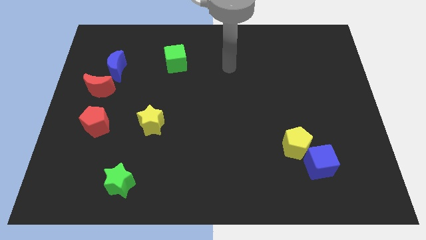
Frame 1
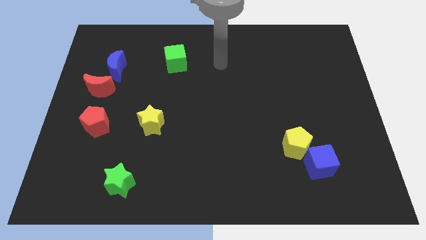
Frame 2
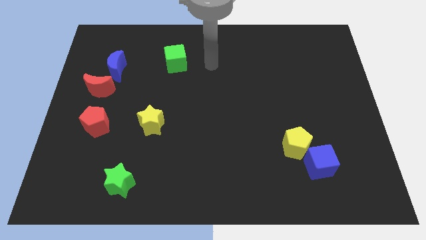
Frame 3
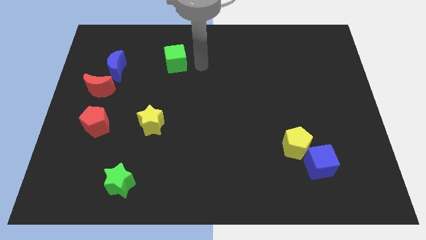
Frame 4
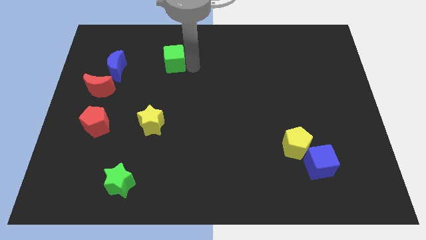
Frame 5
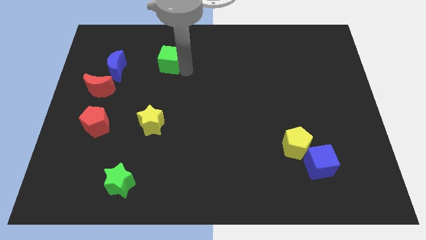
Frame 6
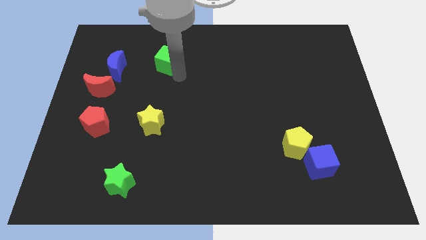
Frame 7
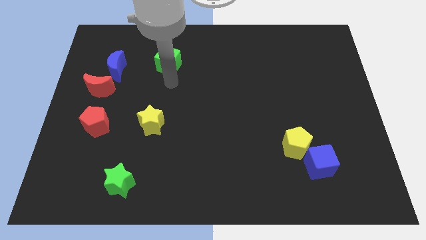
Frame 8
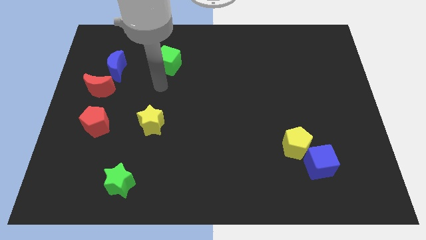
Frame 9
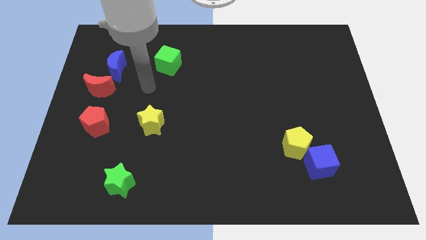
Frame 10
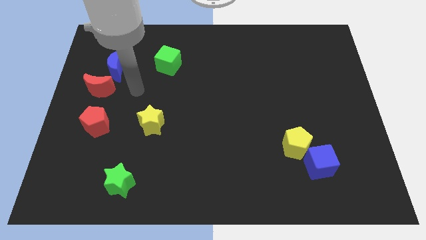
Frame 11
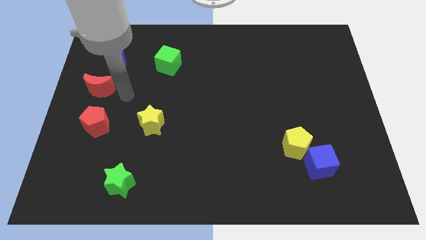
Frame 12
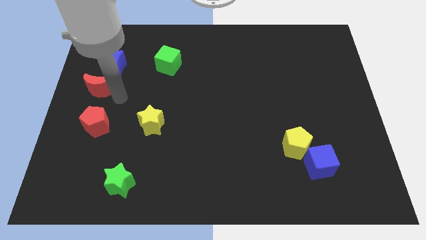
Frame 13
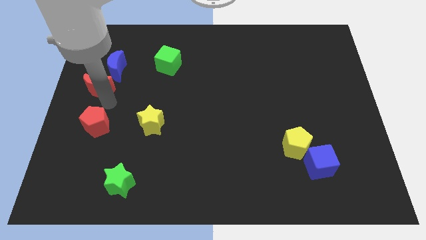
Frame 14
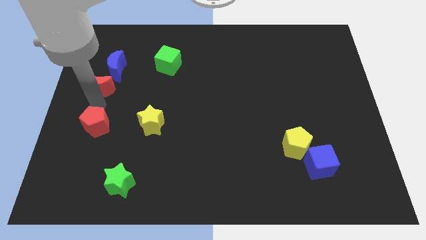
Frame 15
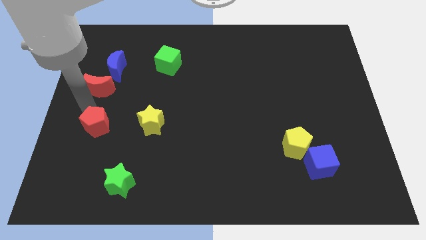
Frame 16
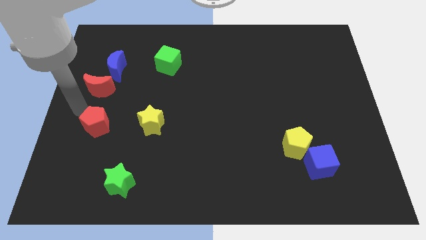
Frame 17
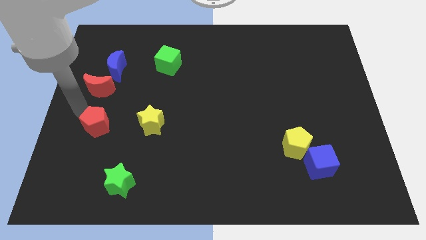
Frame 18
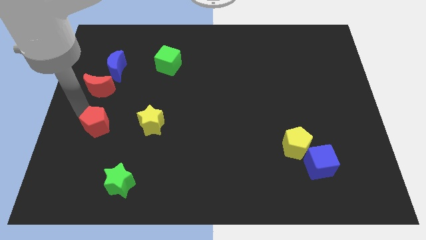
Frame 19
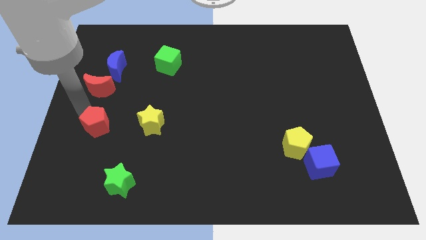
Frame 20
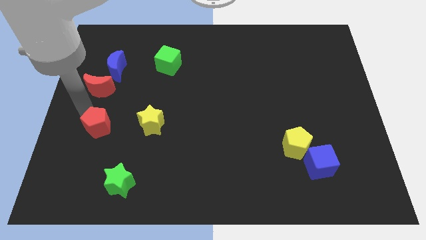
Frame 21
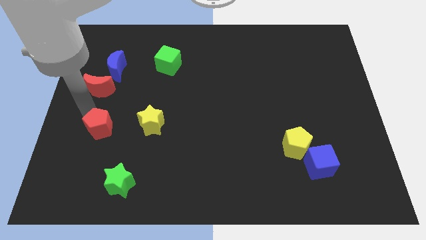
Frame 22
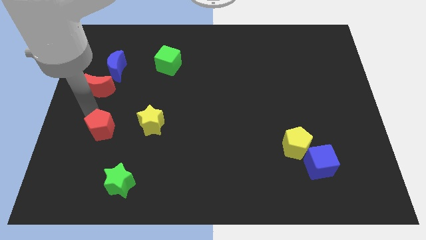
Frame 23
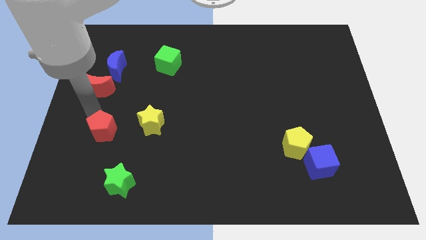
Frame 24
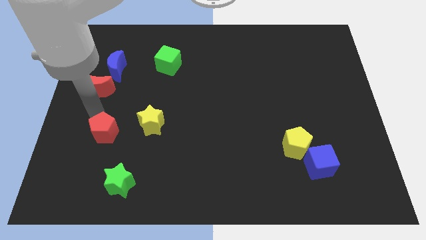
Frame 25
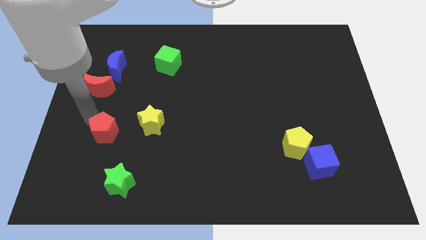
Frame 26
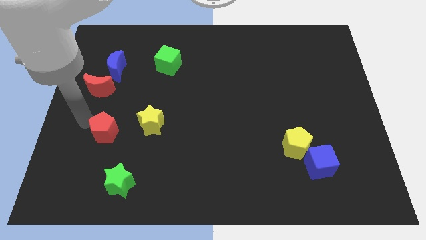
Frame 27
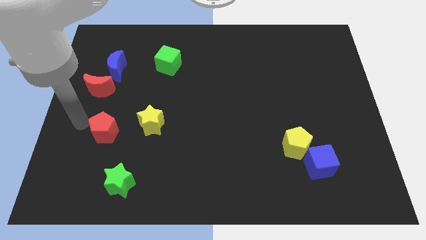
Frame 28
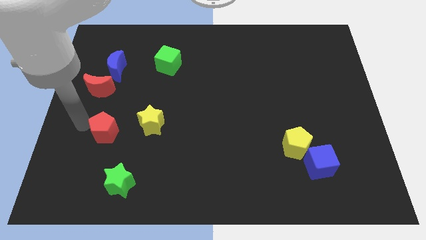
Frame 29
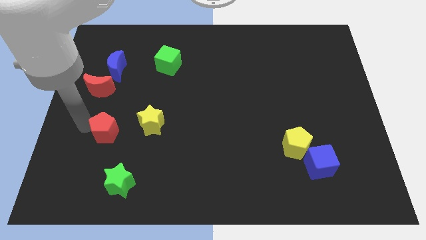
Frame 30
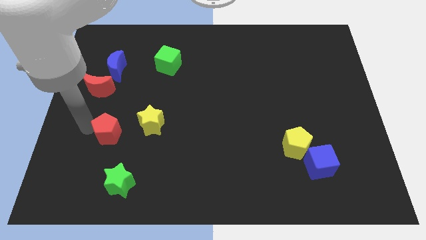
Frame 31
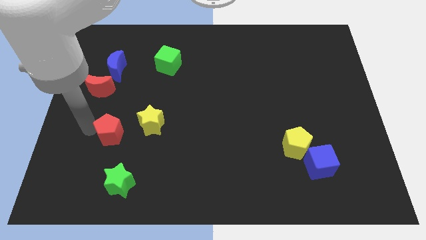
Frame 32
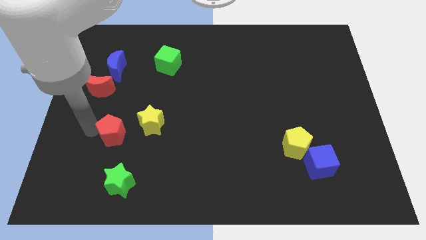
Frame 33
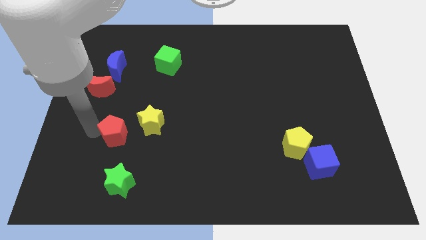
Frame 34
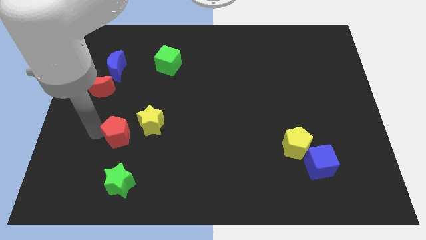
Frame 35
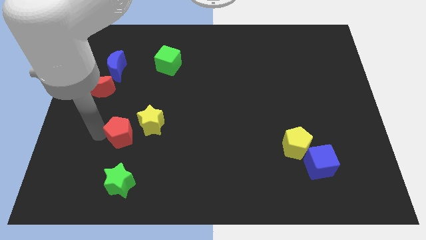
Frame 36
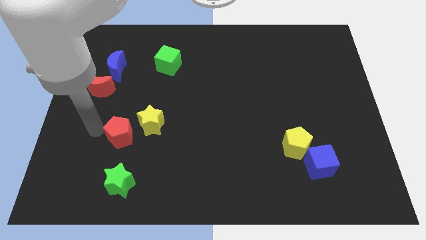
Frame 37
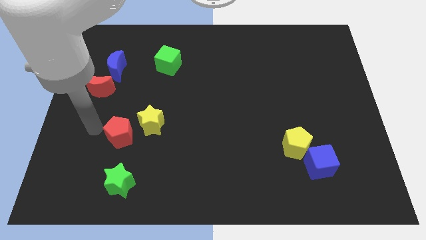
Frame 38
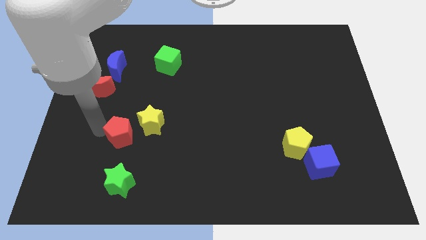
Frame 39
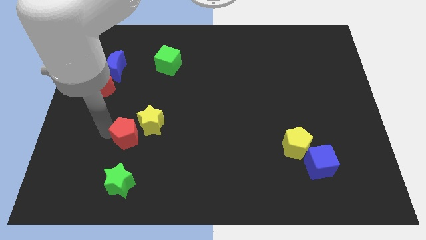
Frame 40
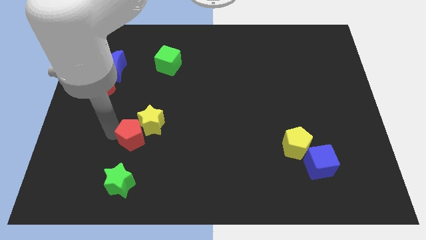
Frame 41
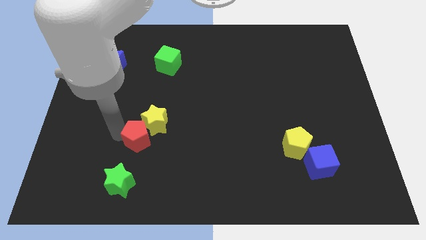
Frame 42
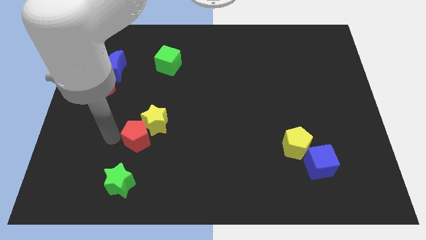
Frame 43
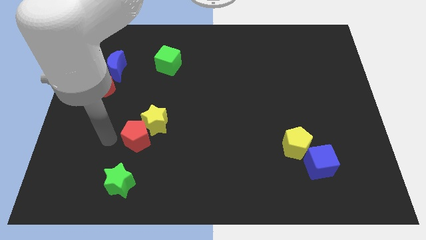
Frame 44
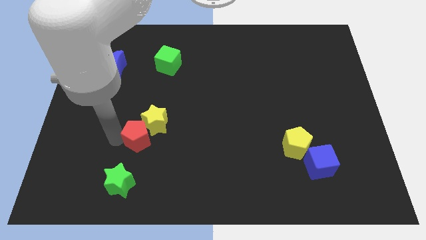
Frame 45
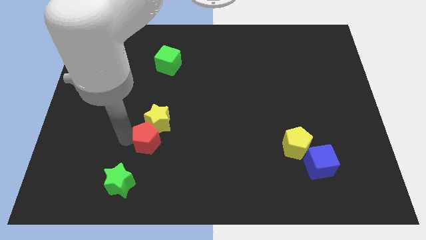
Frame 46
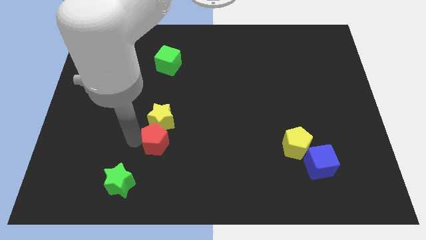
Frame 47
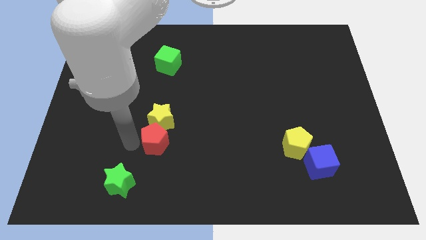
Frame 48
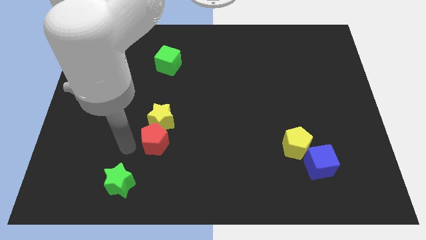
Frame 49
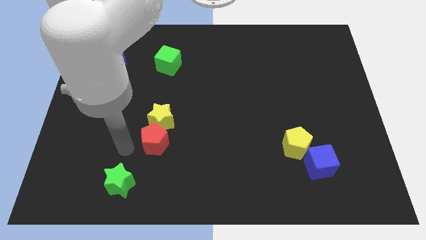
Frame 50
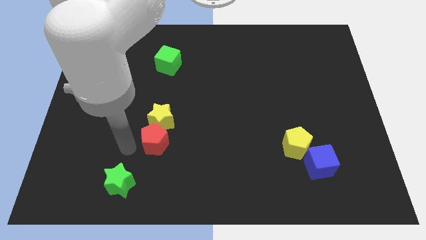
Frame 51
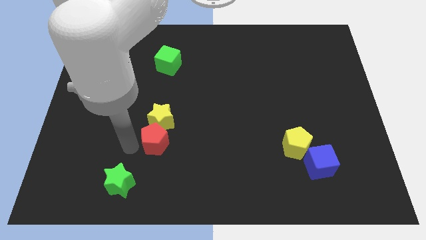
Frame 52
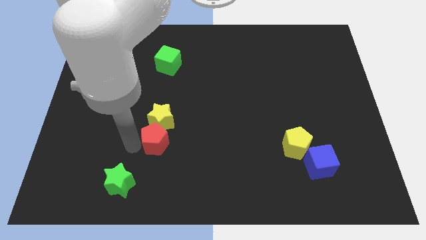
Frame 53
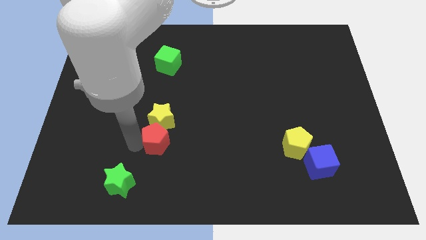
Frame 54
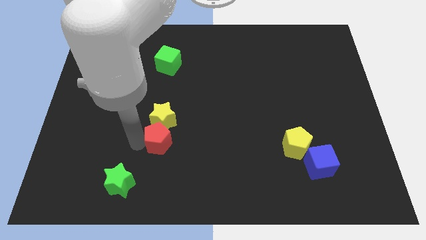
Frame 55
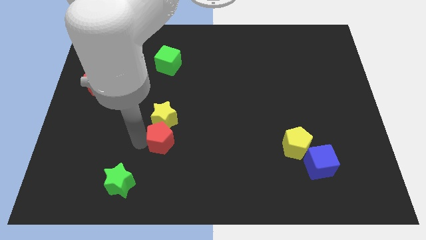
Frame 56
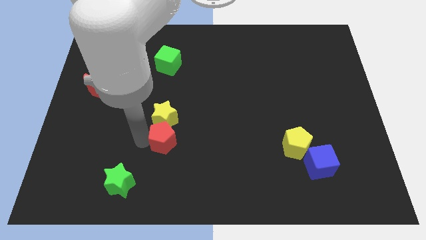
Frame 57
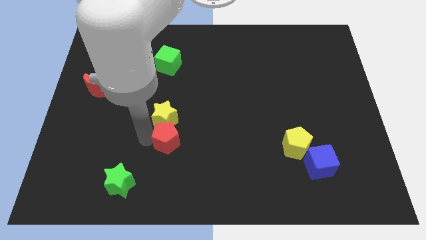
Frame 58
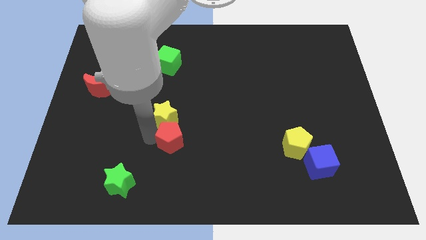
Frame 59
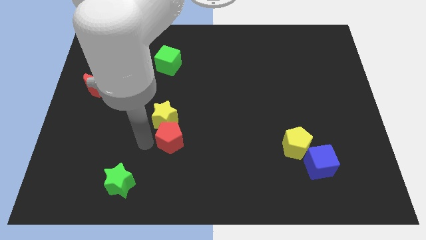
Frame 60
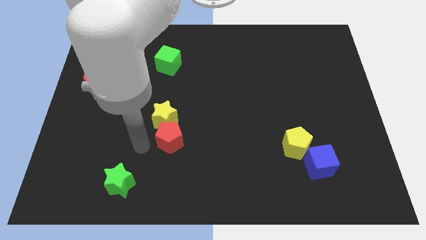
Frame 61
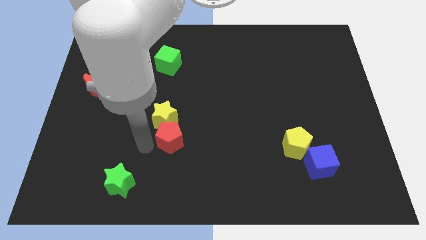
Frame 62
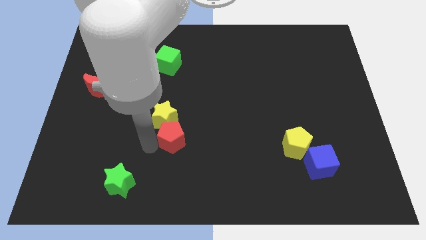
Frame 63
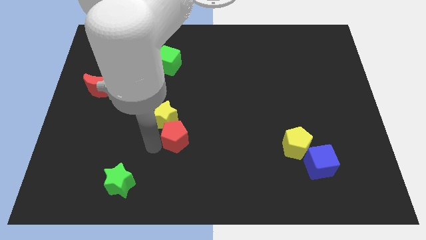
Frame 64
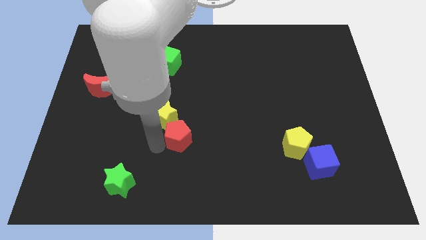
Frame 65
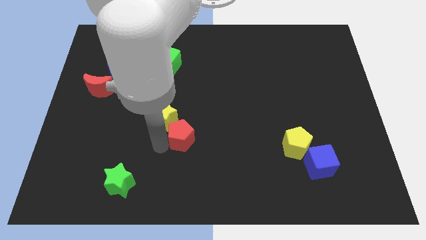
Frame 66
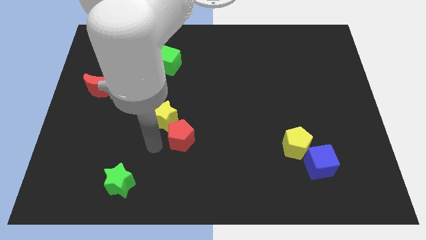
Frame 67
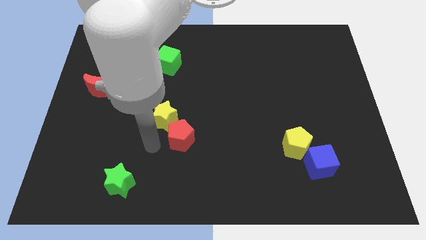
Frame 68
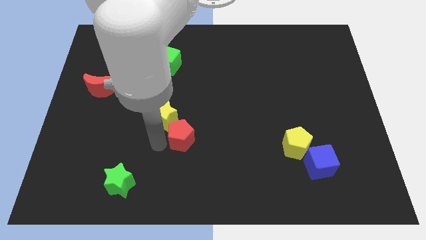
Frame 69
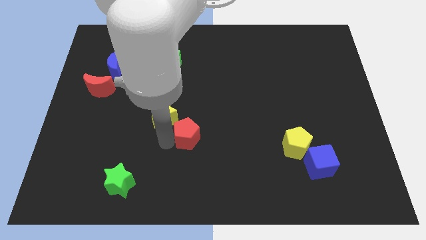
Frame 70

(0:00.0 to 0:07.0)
slide the red pentagon to the right

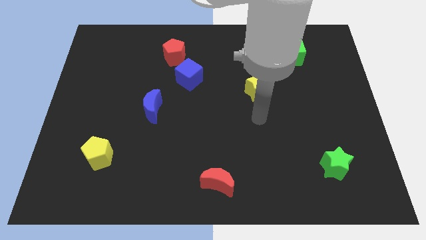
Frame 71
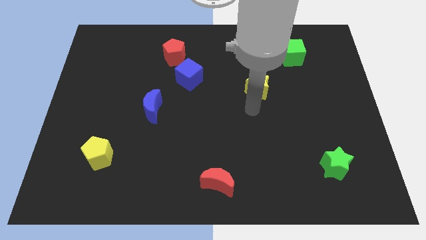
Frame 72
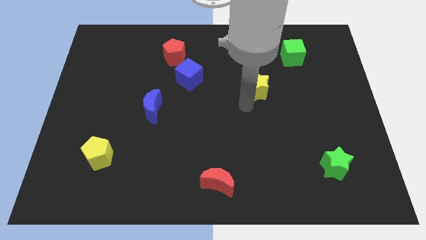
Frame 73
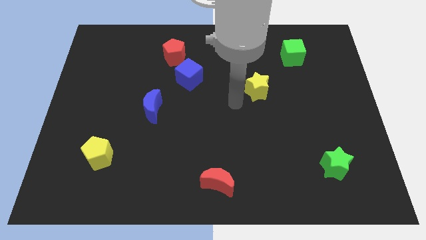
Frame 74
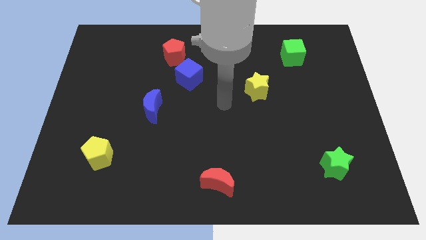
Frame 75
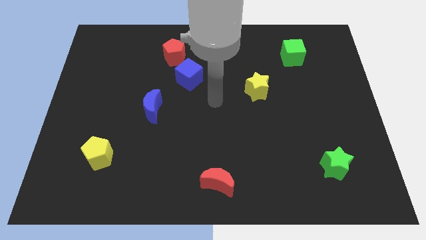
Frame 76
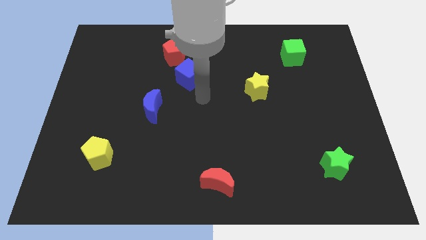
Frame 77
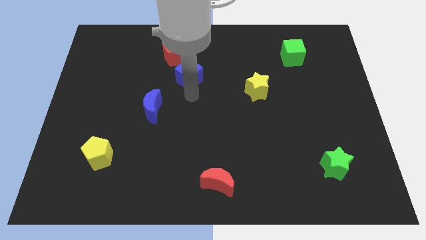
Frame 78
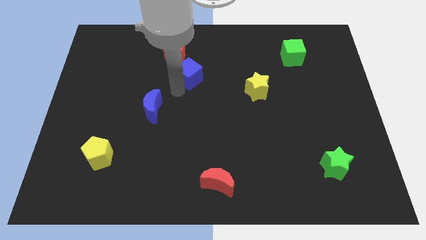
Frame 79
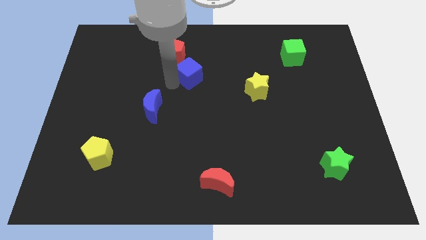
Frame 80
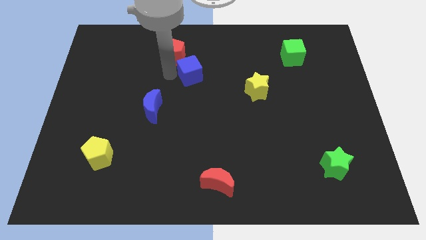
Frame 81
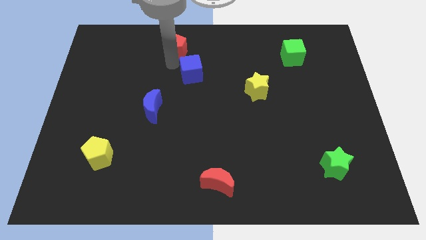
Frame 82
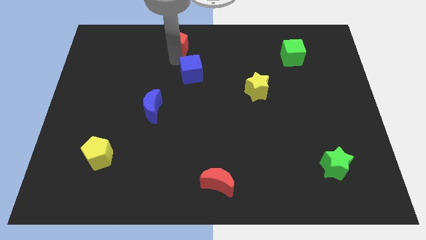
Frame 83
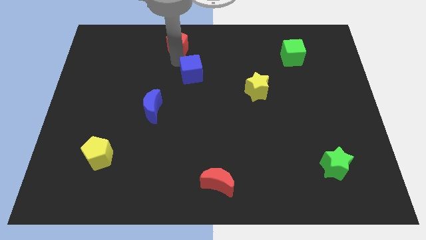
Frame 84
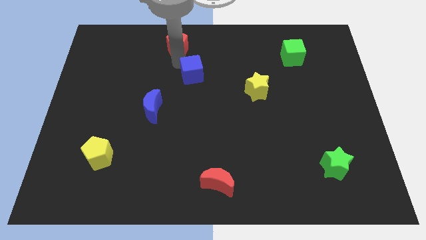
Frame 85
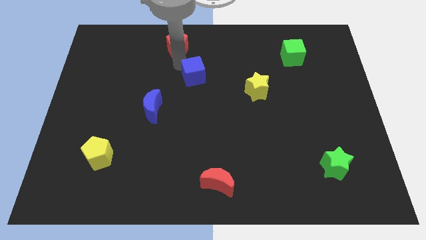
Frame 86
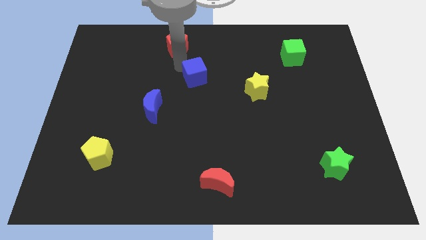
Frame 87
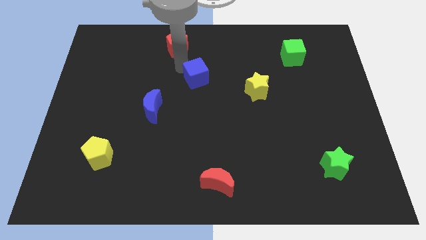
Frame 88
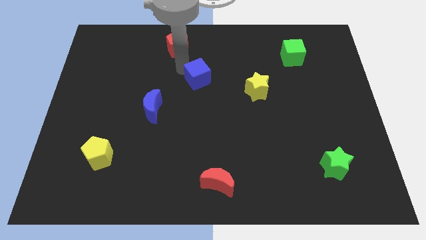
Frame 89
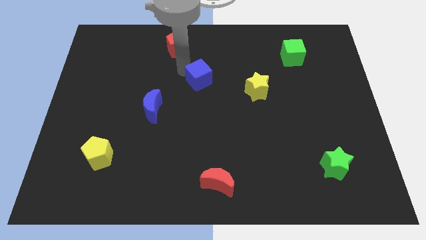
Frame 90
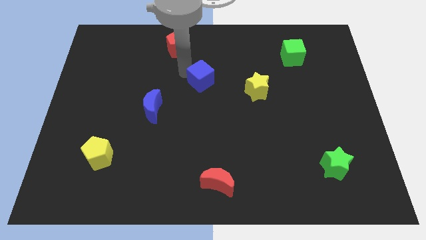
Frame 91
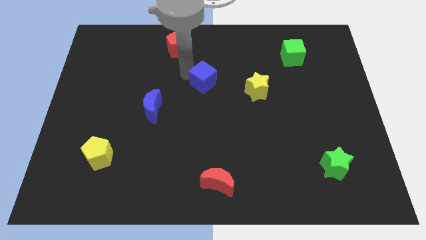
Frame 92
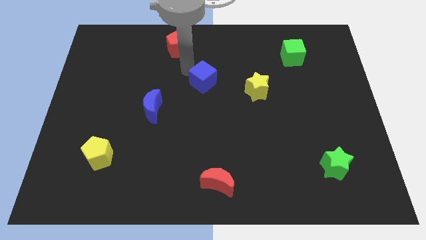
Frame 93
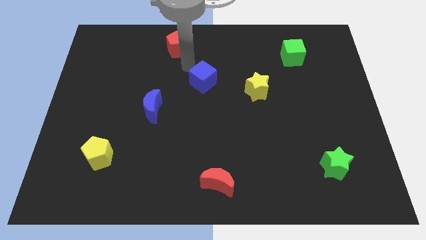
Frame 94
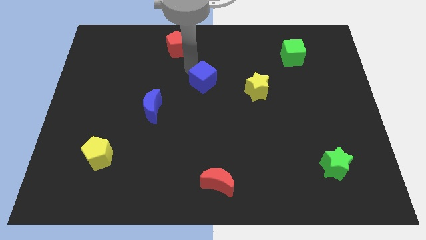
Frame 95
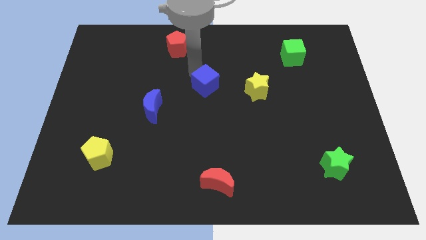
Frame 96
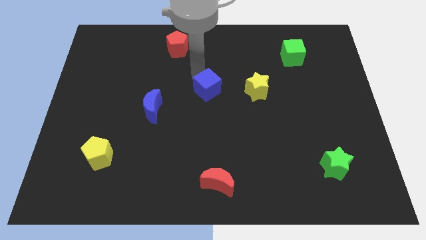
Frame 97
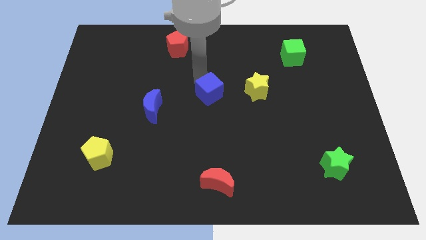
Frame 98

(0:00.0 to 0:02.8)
slightly push the blue cube downwards and then to the right
